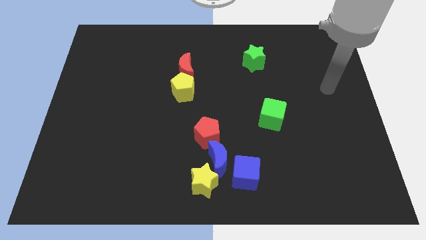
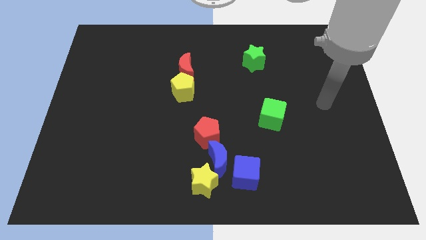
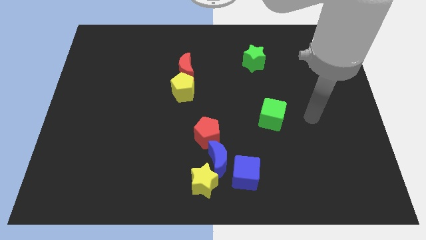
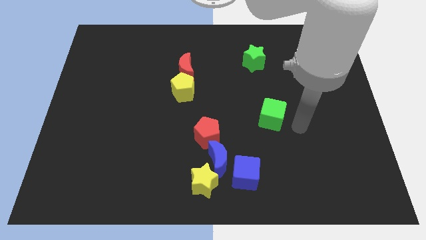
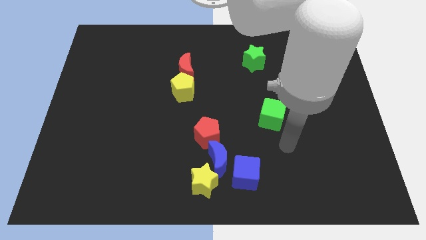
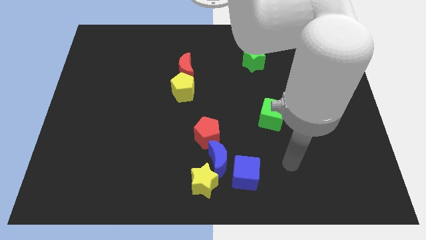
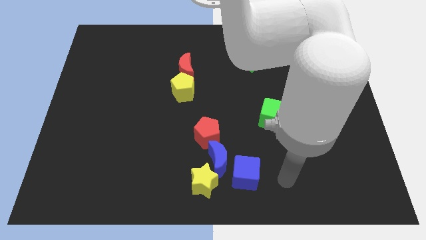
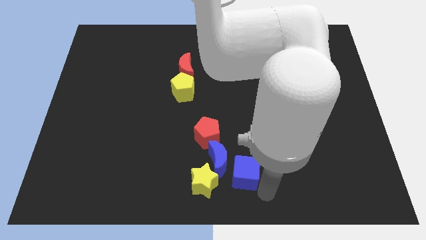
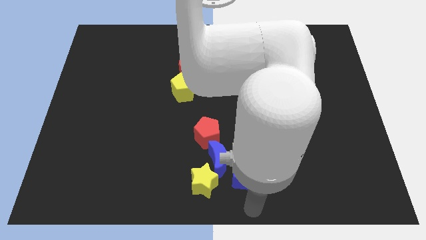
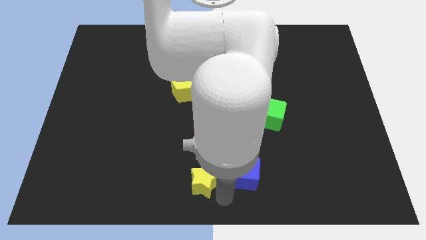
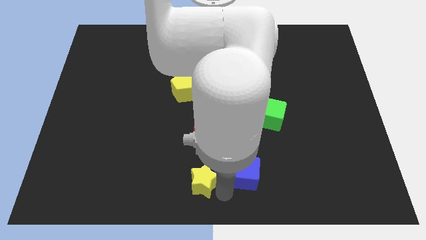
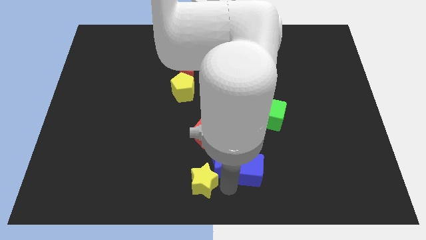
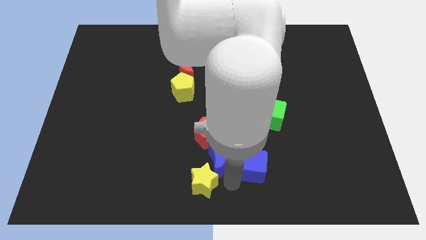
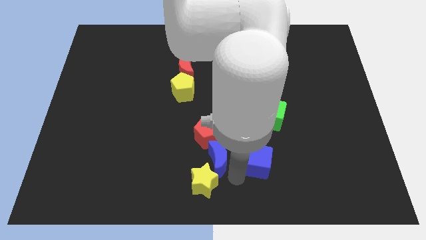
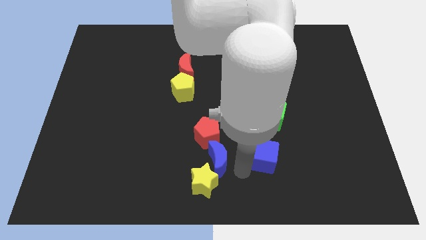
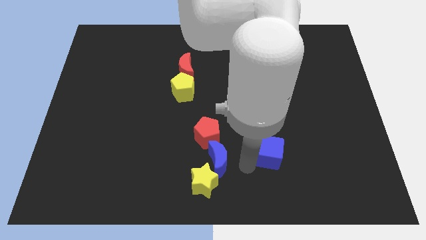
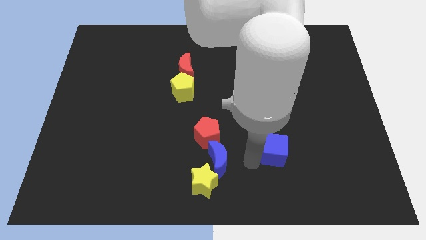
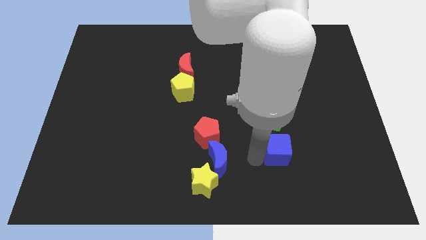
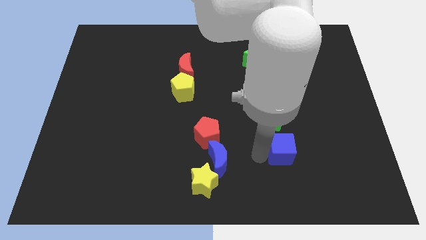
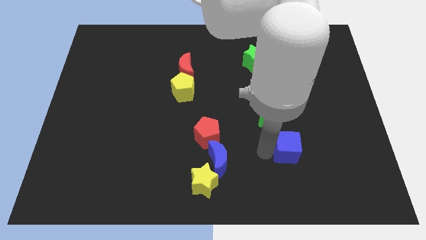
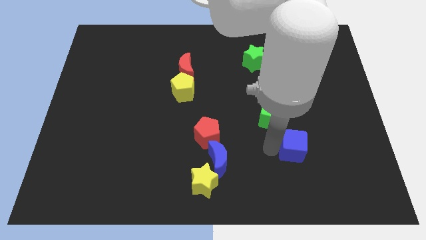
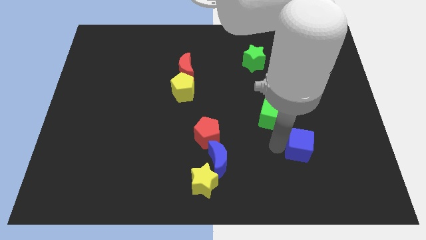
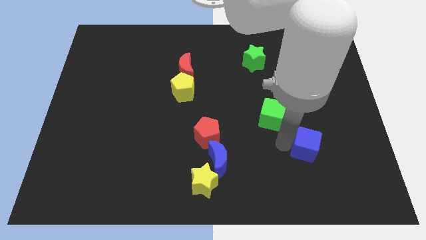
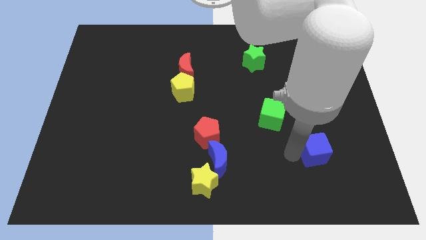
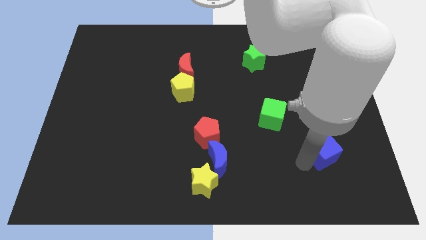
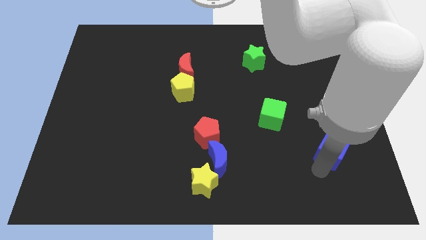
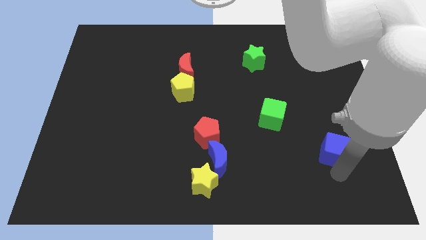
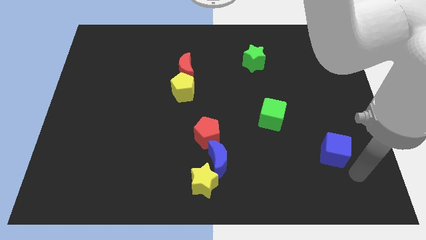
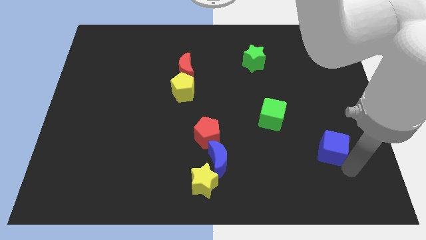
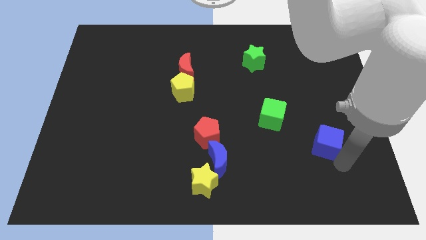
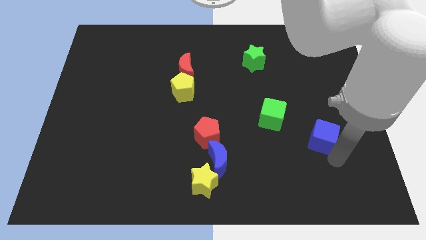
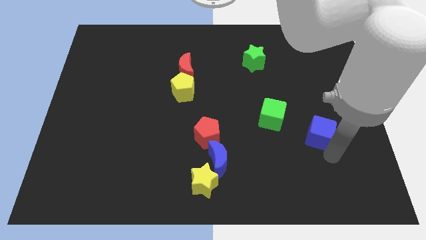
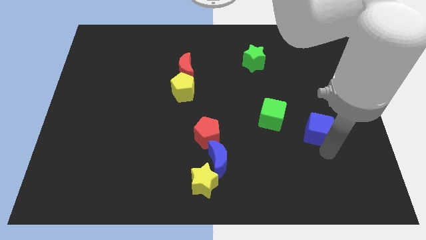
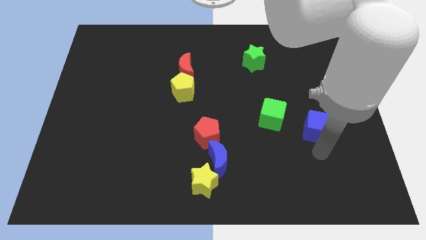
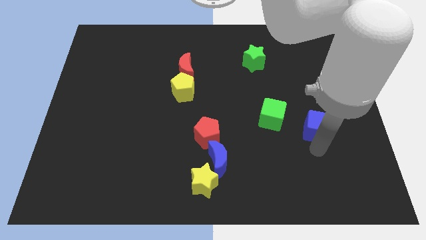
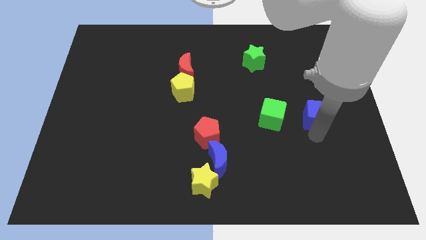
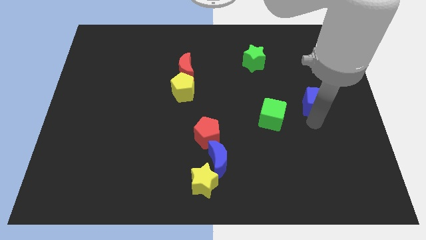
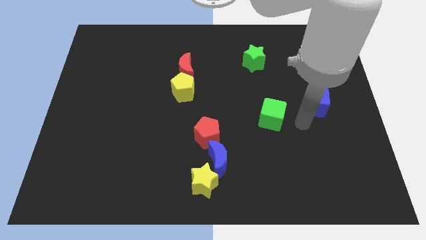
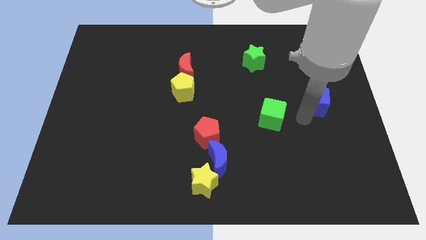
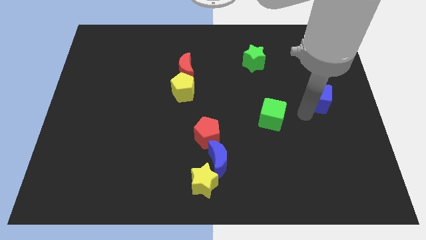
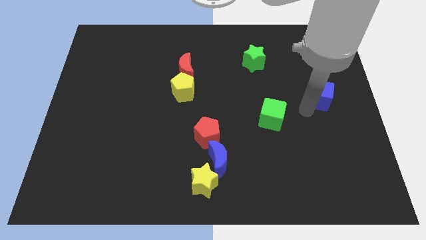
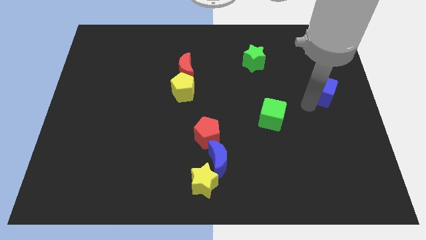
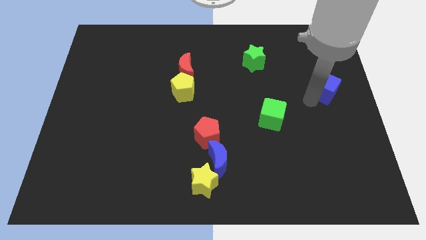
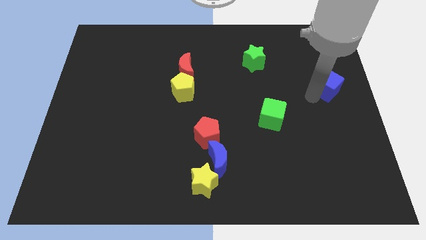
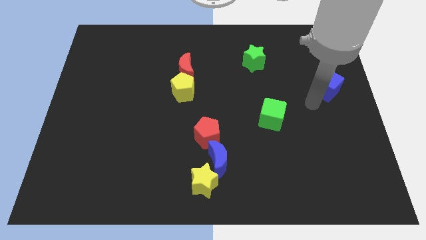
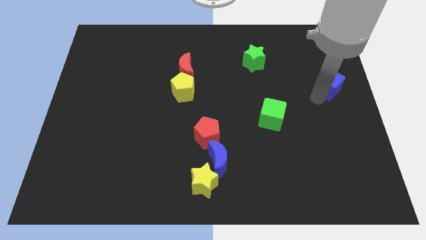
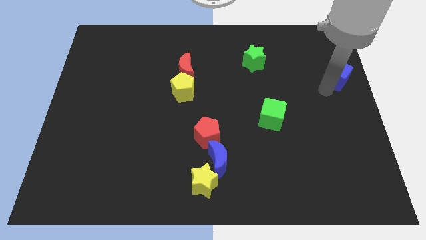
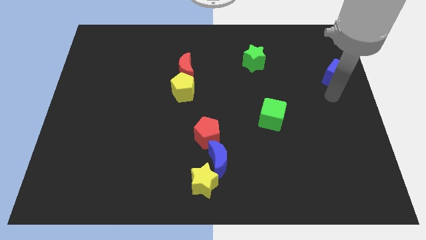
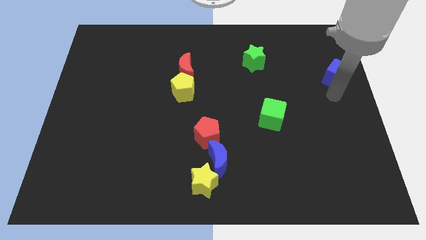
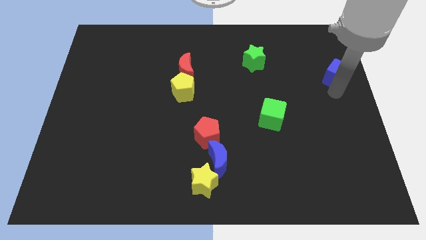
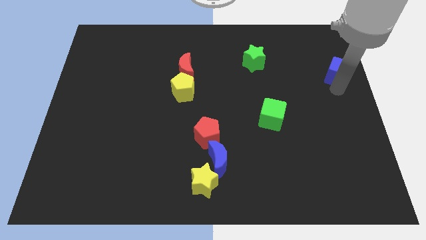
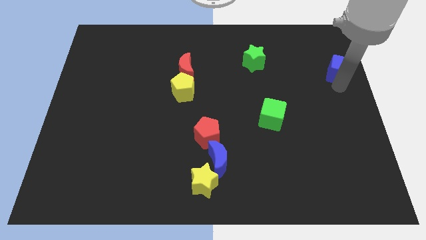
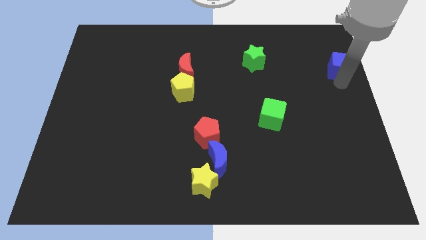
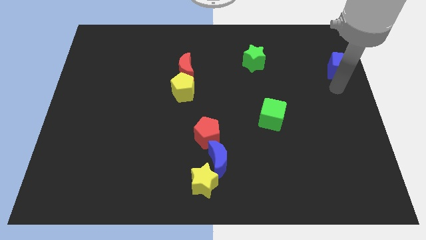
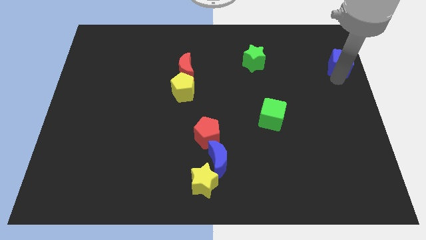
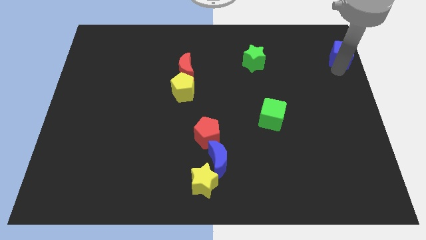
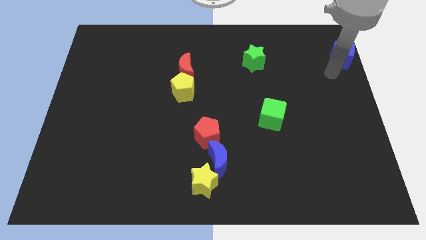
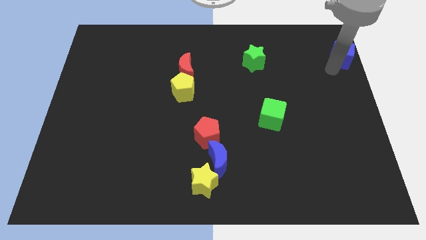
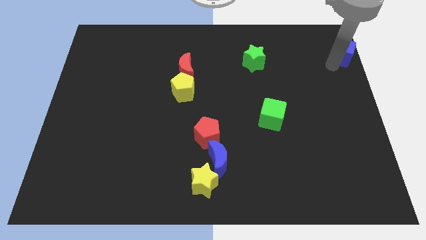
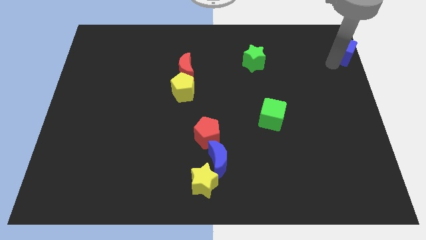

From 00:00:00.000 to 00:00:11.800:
move the blue cube to the top right

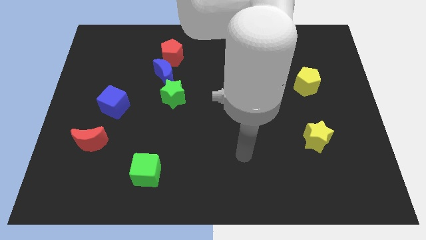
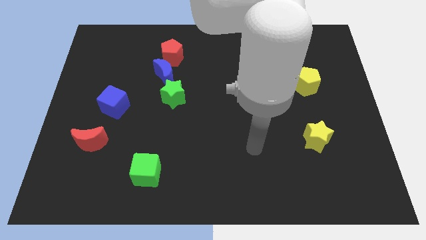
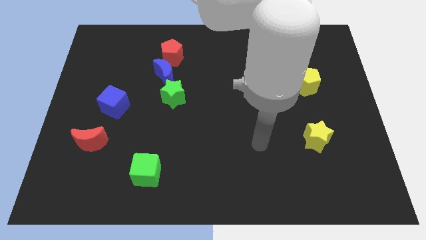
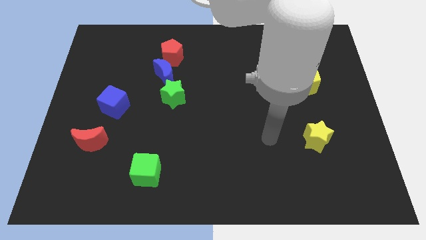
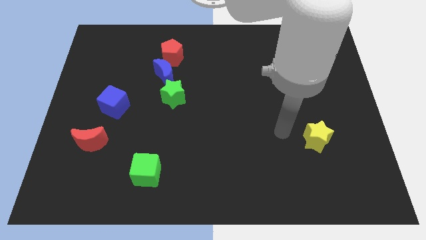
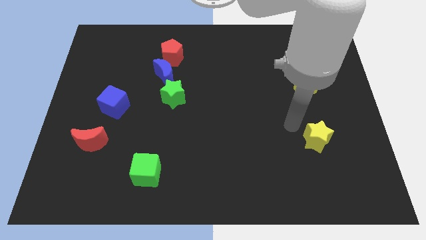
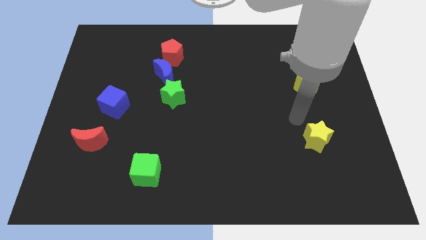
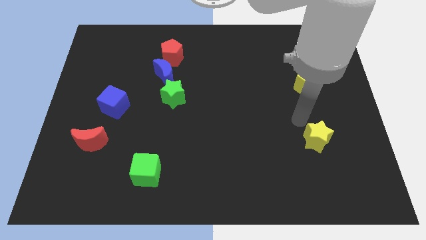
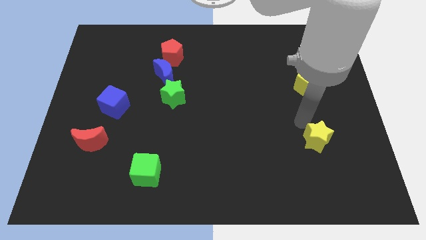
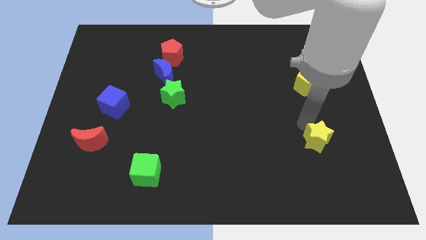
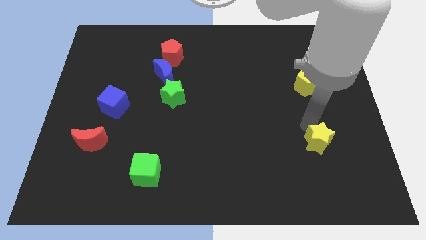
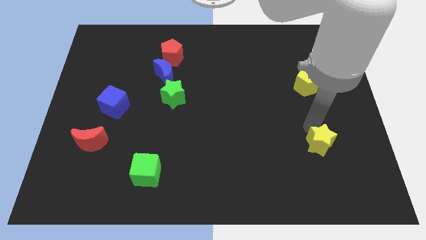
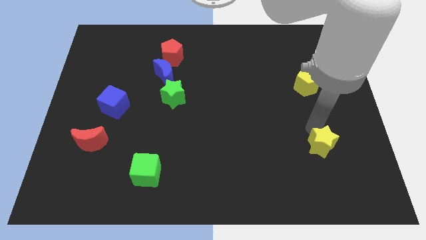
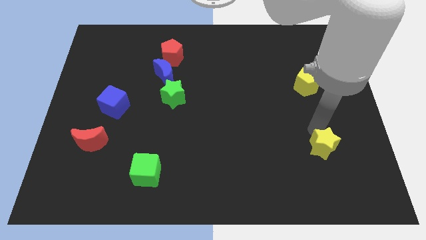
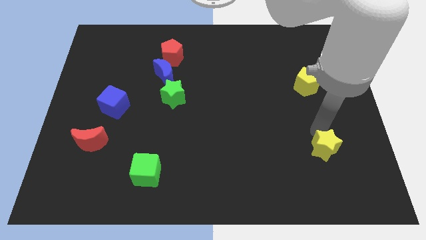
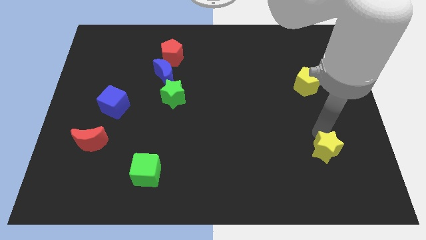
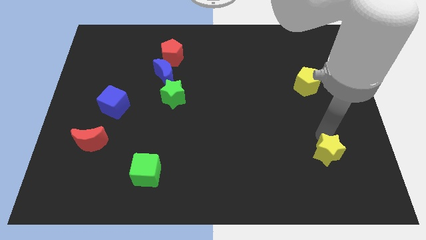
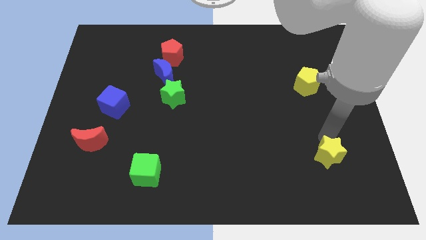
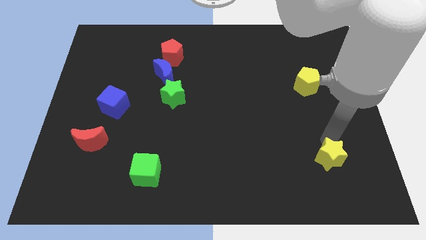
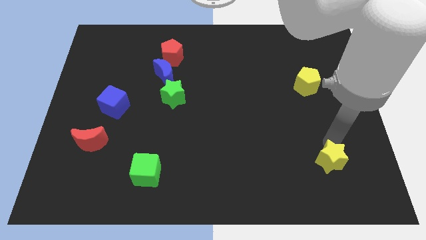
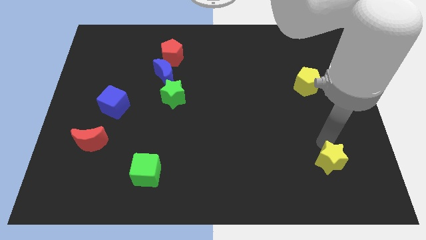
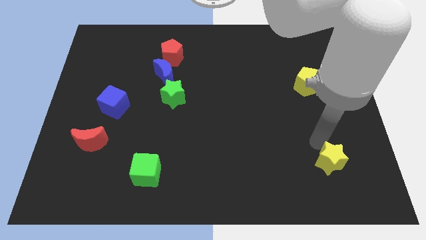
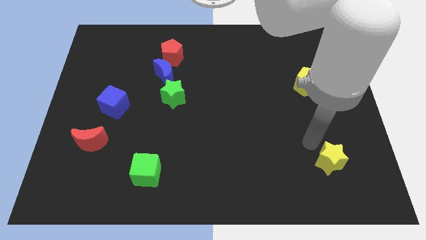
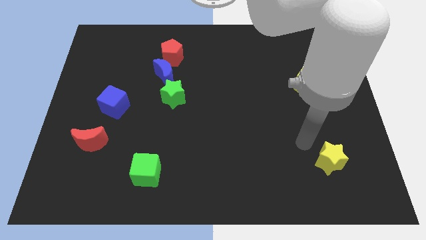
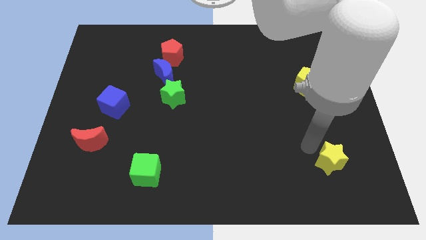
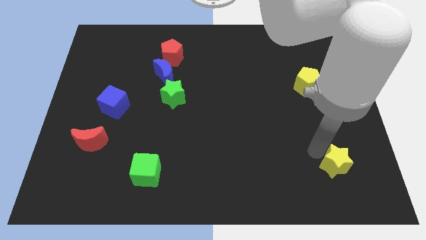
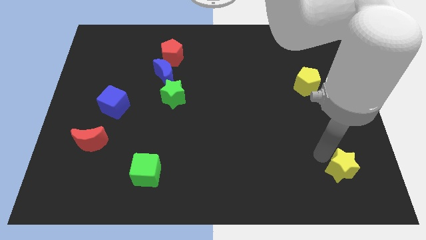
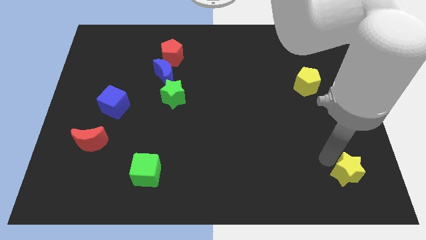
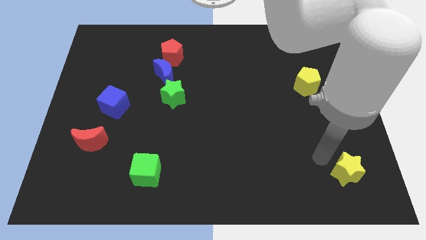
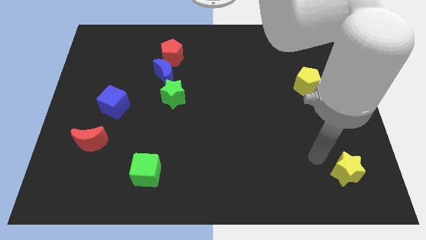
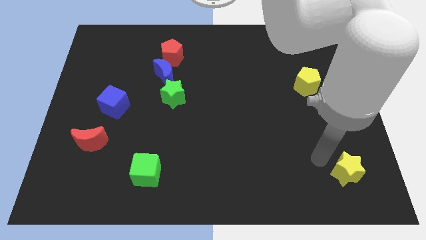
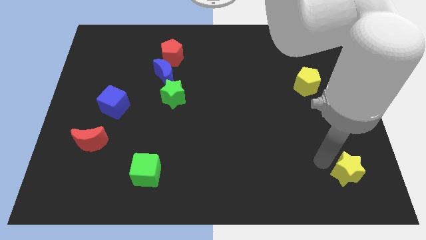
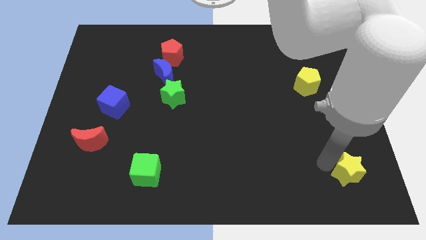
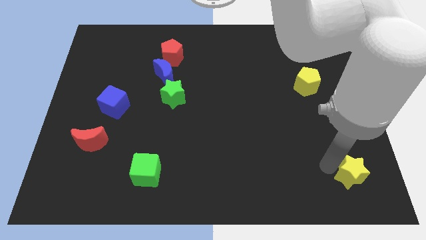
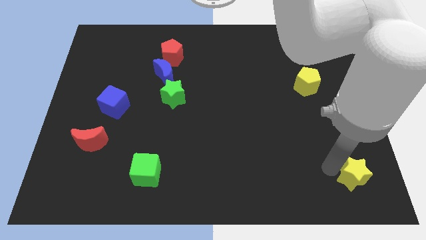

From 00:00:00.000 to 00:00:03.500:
push the yellow star to the bottom right
